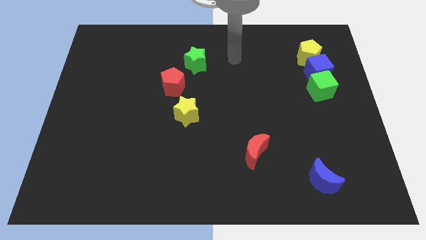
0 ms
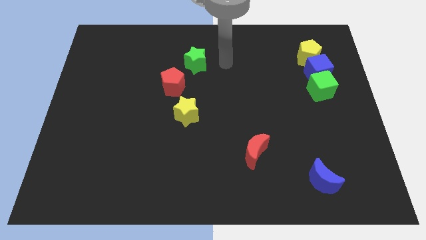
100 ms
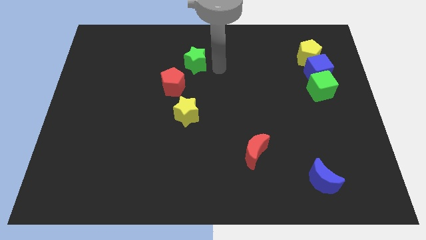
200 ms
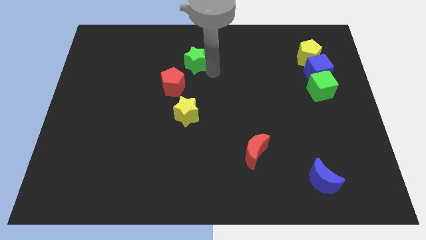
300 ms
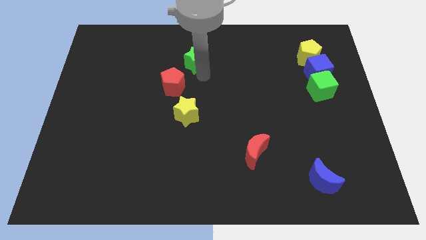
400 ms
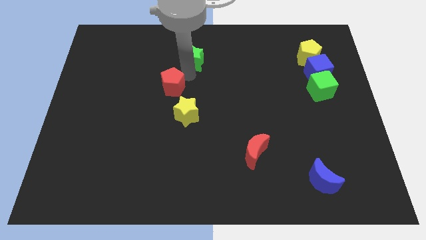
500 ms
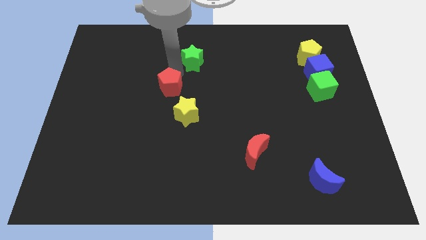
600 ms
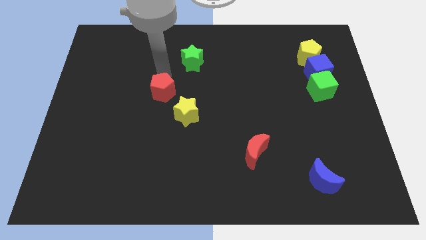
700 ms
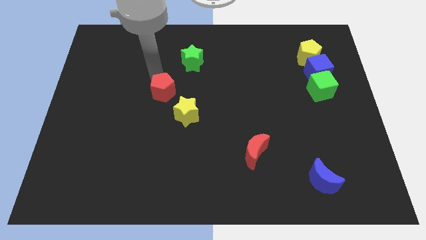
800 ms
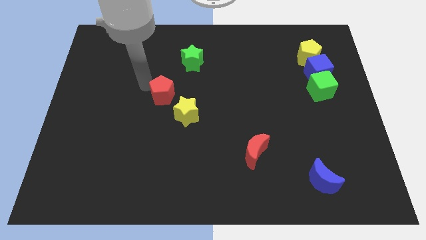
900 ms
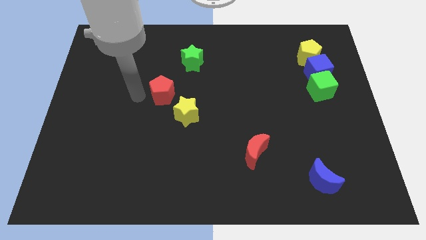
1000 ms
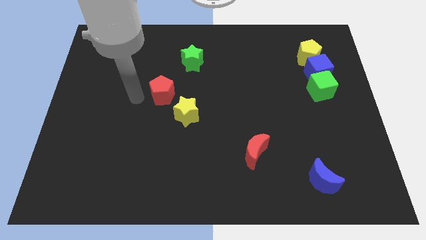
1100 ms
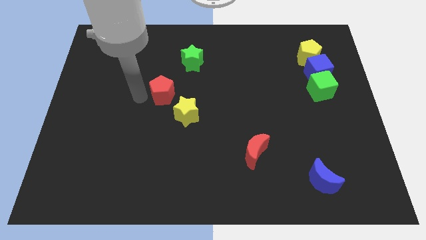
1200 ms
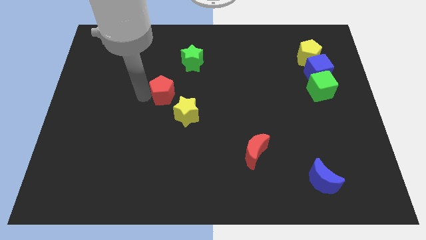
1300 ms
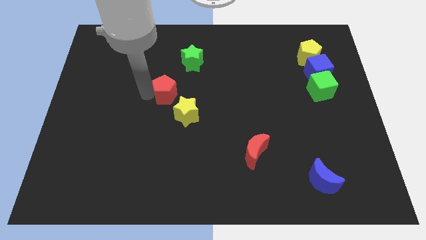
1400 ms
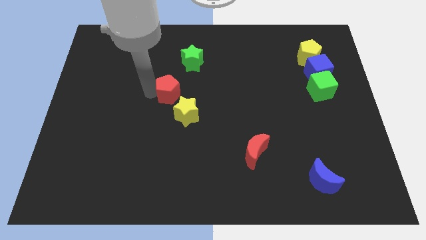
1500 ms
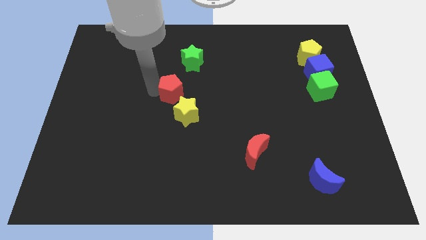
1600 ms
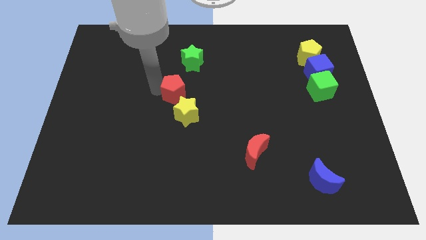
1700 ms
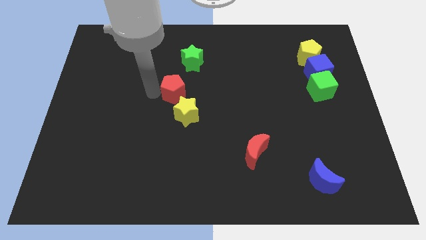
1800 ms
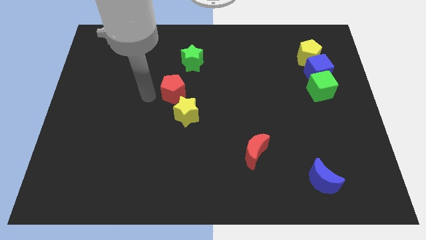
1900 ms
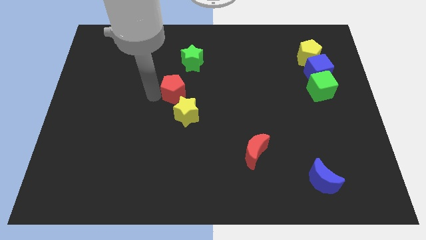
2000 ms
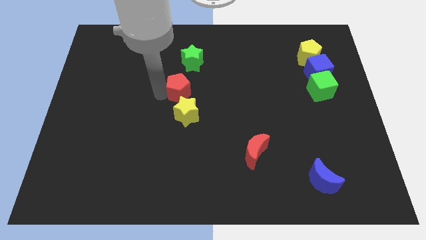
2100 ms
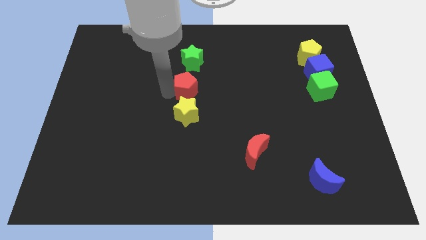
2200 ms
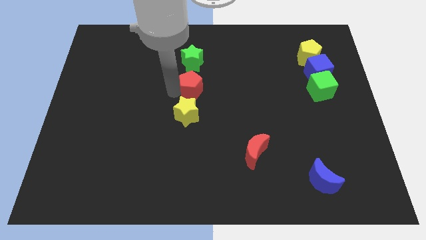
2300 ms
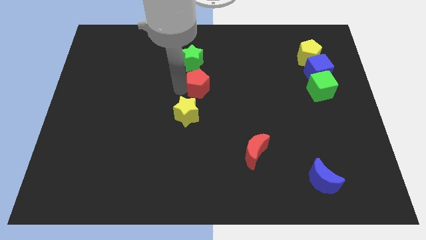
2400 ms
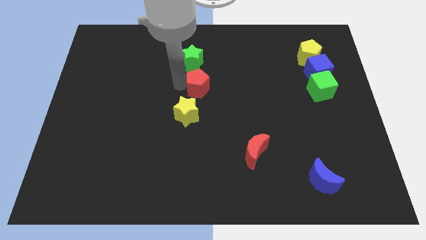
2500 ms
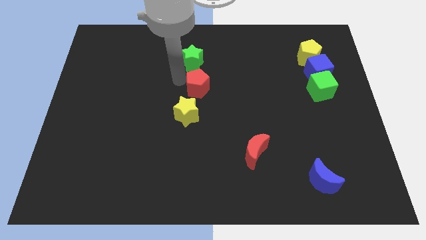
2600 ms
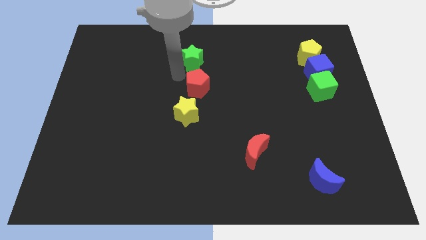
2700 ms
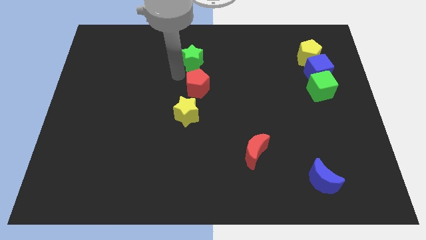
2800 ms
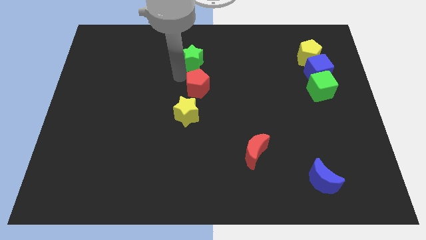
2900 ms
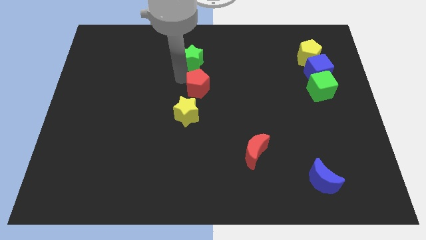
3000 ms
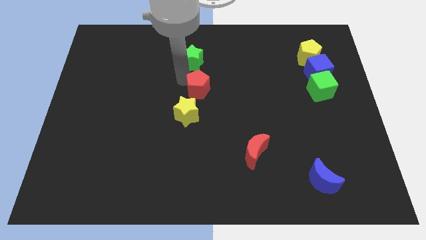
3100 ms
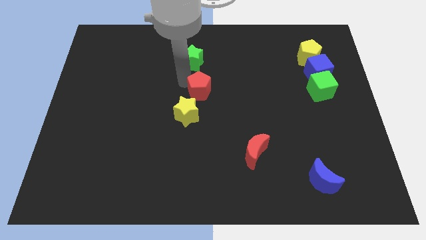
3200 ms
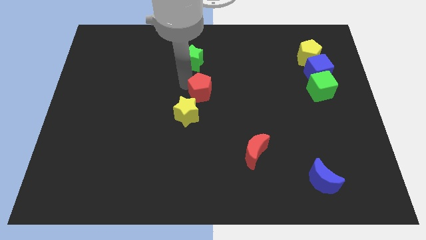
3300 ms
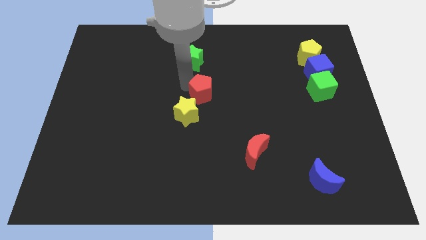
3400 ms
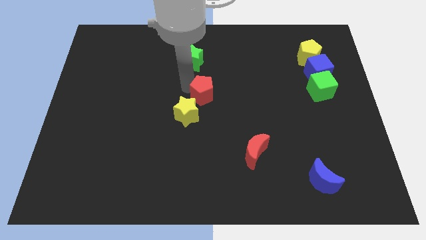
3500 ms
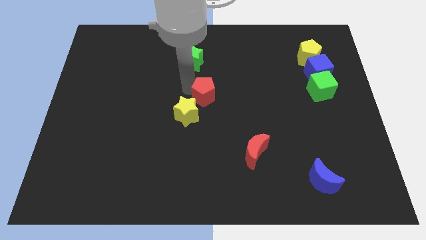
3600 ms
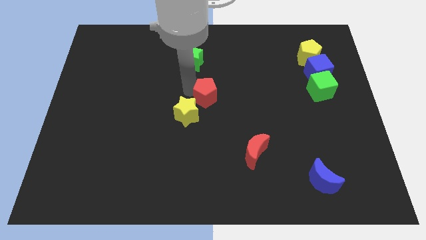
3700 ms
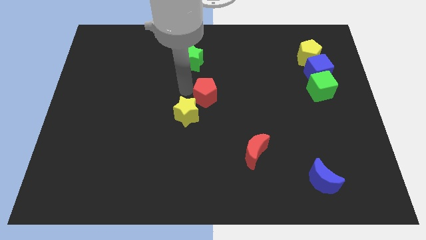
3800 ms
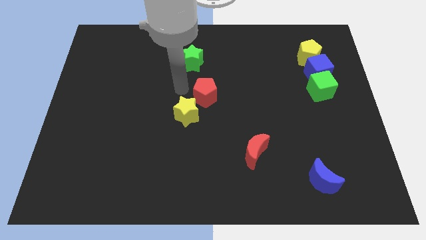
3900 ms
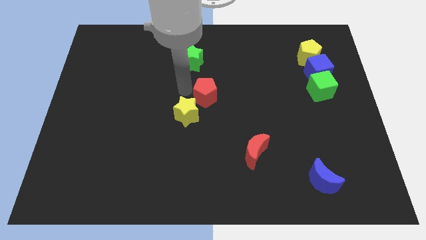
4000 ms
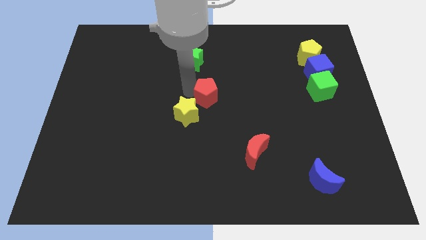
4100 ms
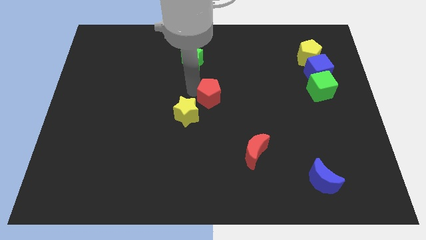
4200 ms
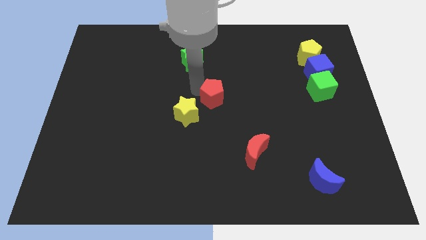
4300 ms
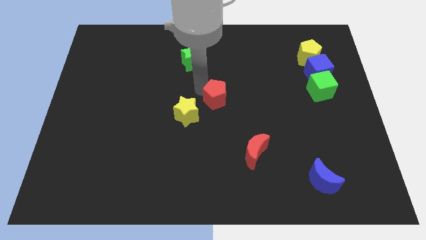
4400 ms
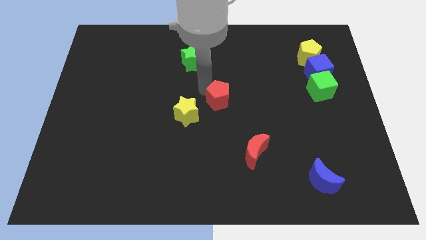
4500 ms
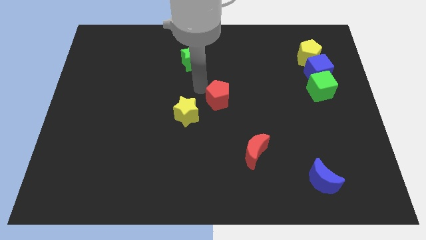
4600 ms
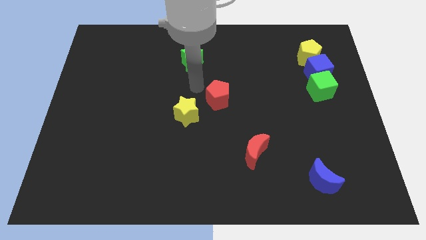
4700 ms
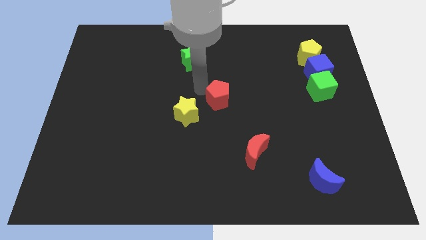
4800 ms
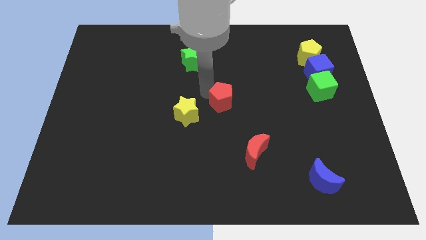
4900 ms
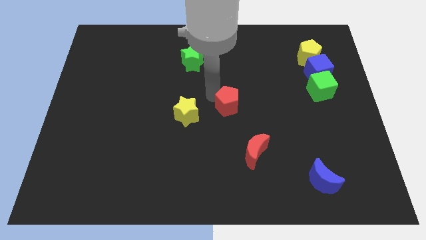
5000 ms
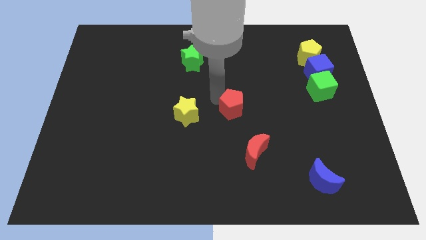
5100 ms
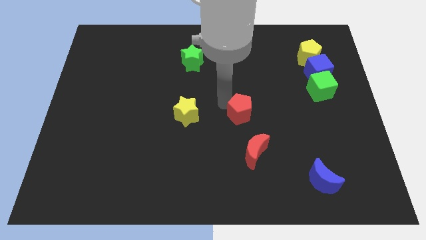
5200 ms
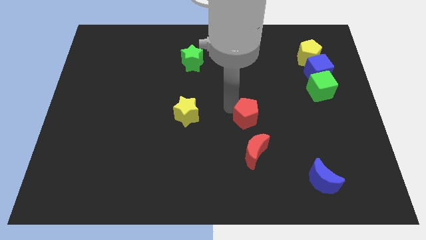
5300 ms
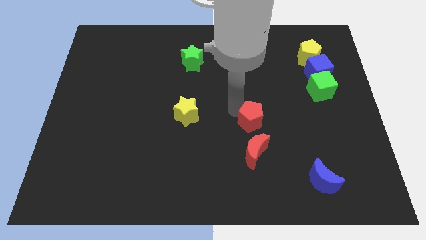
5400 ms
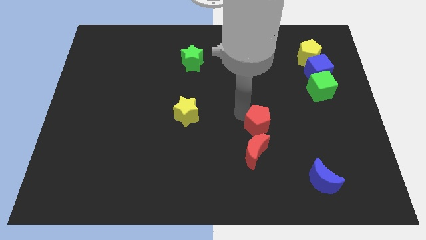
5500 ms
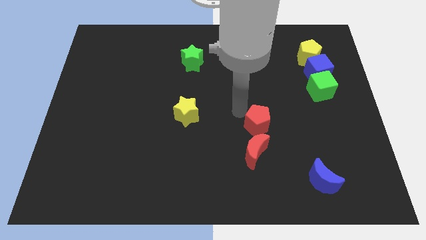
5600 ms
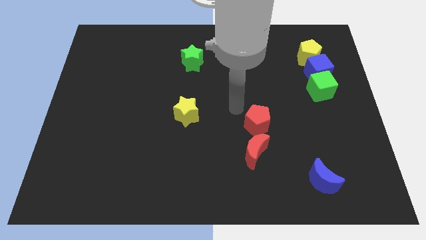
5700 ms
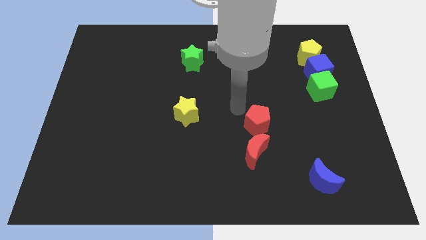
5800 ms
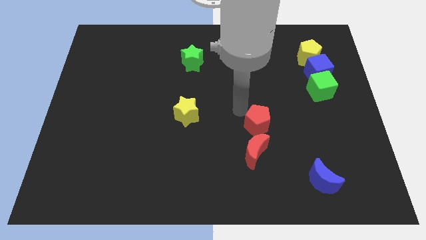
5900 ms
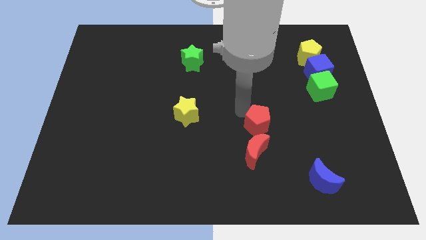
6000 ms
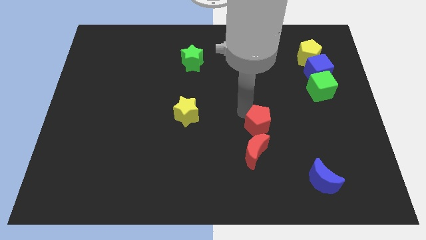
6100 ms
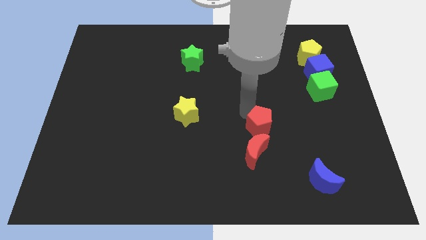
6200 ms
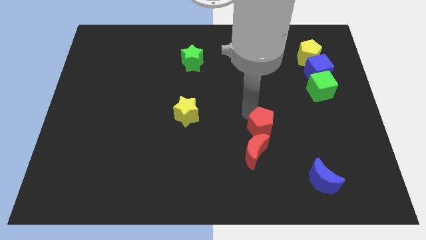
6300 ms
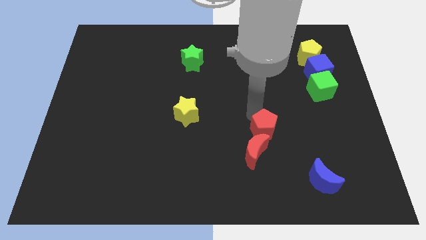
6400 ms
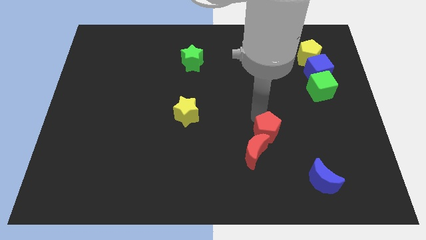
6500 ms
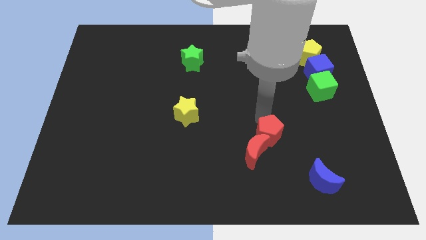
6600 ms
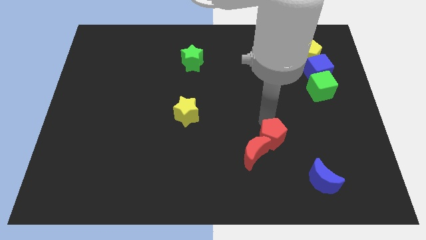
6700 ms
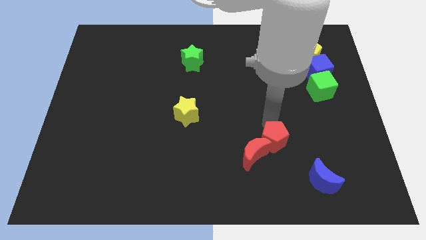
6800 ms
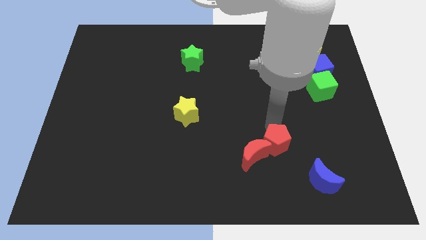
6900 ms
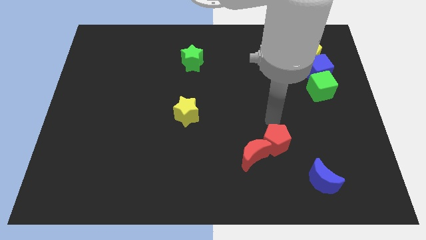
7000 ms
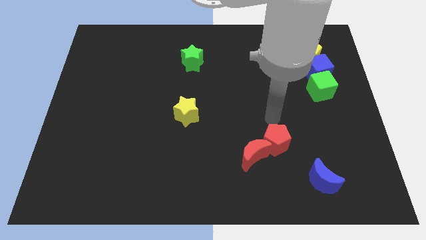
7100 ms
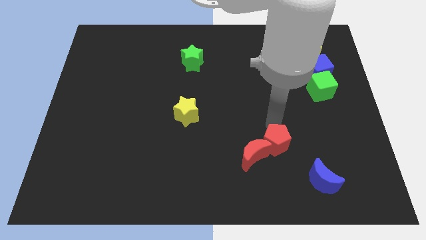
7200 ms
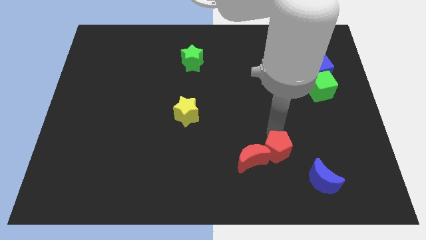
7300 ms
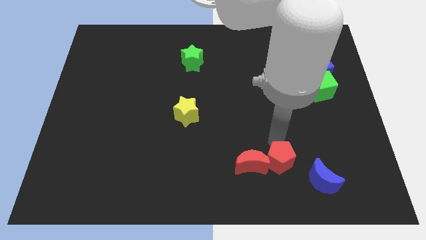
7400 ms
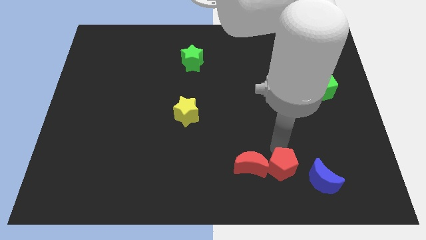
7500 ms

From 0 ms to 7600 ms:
move the red pentagon diagonally down and to the right of the red moon
